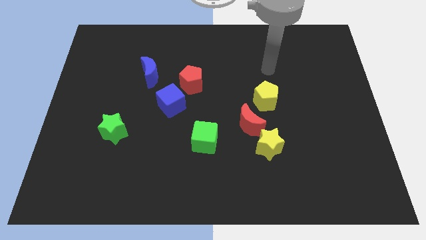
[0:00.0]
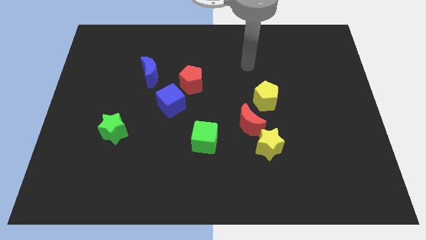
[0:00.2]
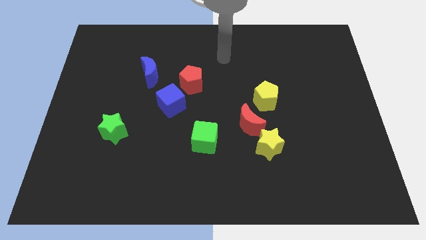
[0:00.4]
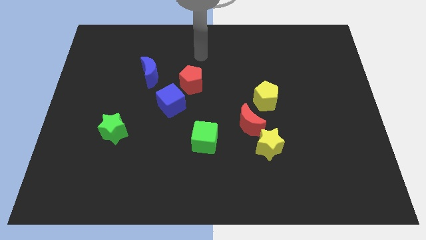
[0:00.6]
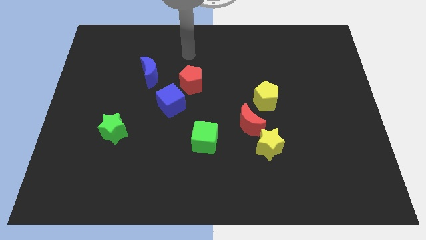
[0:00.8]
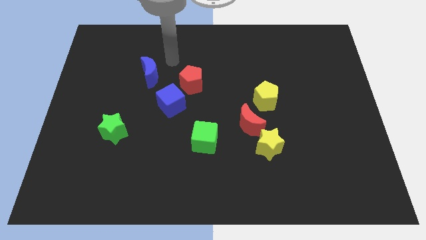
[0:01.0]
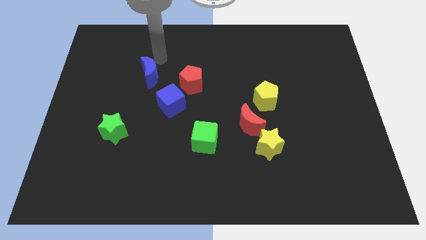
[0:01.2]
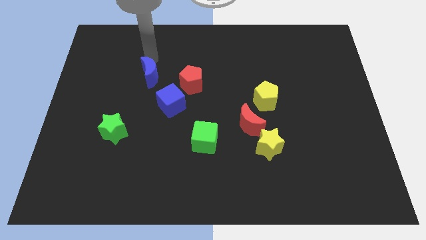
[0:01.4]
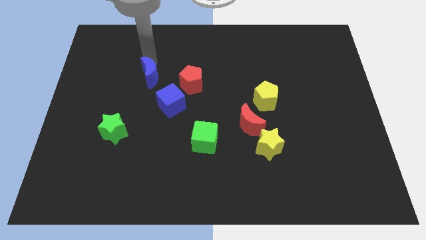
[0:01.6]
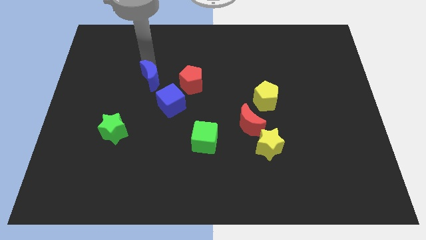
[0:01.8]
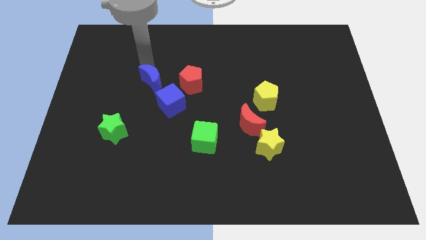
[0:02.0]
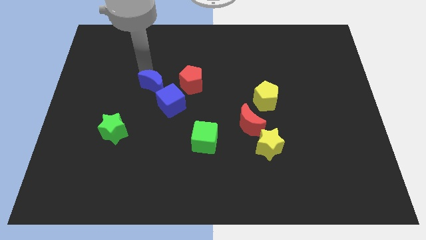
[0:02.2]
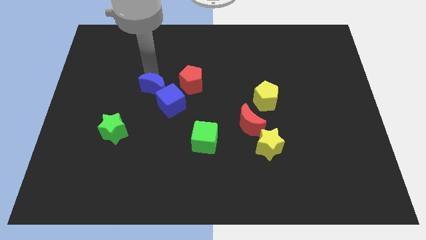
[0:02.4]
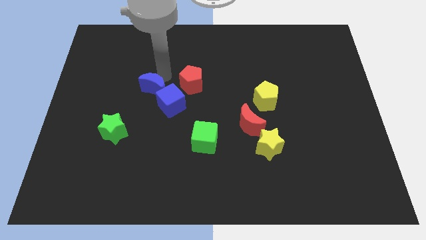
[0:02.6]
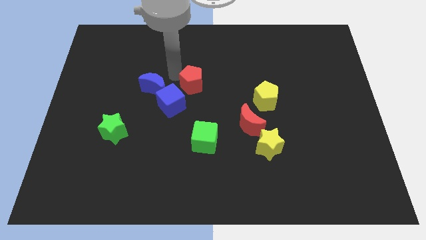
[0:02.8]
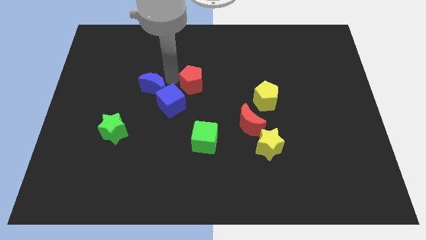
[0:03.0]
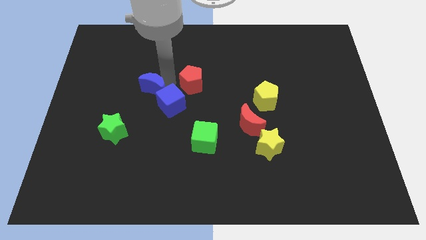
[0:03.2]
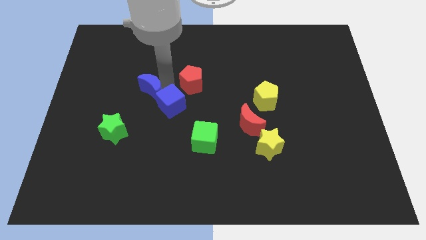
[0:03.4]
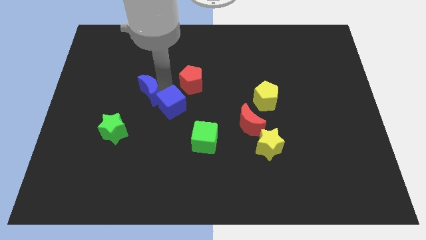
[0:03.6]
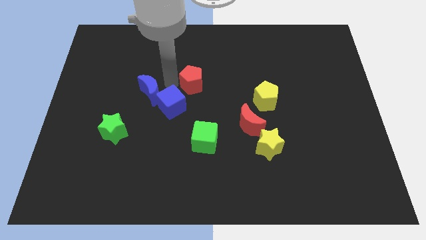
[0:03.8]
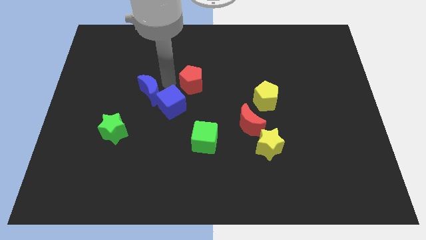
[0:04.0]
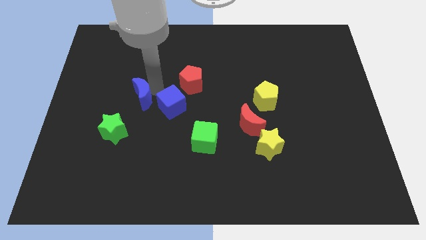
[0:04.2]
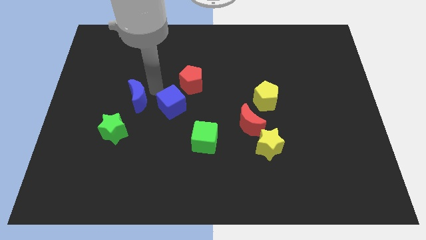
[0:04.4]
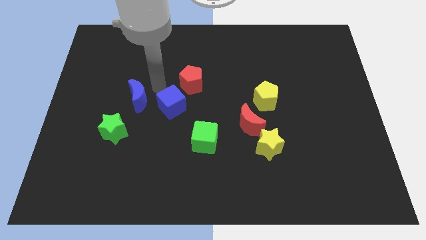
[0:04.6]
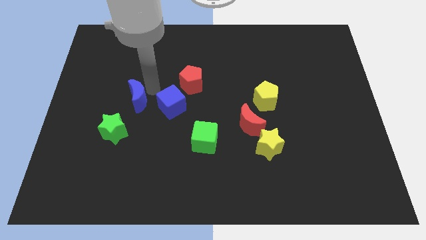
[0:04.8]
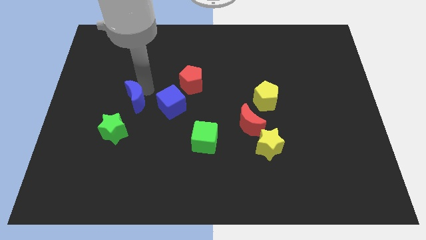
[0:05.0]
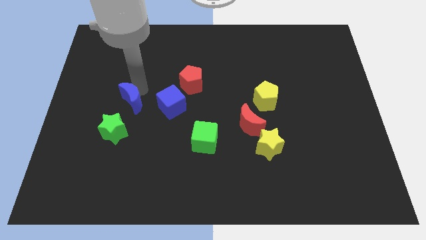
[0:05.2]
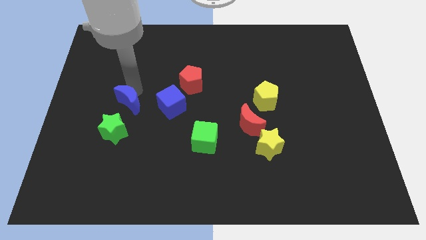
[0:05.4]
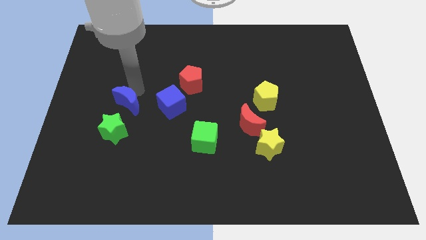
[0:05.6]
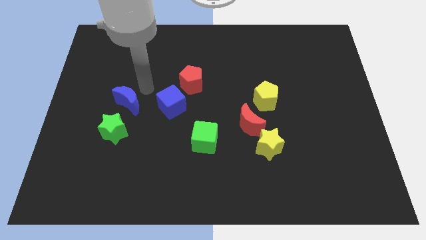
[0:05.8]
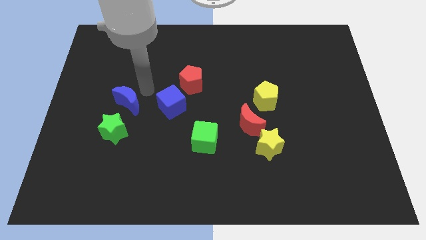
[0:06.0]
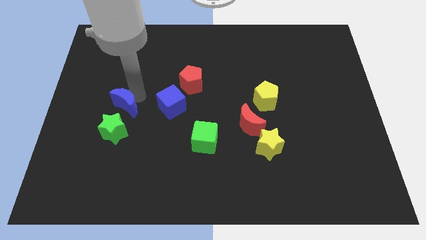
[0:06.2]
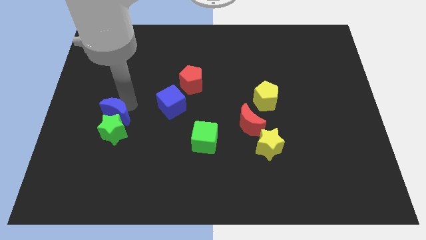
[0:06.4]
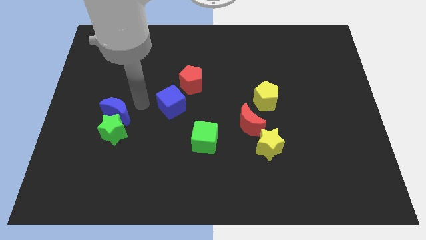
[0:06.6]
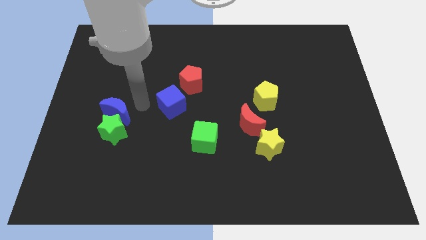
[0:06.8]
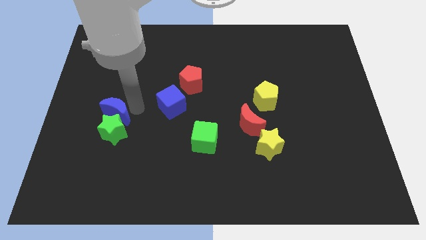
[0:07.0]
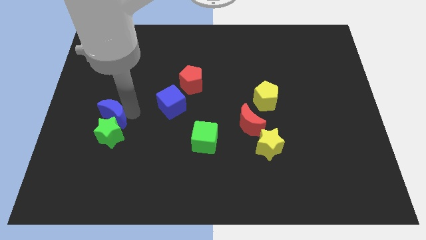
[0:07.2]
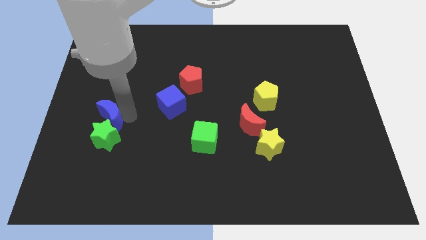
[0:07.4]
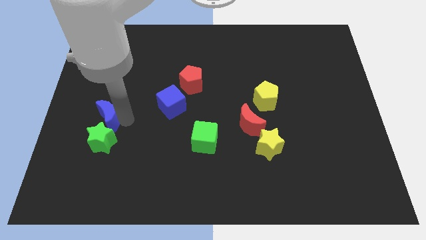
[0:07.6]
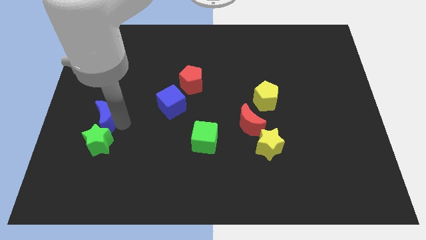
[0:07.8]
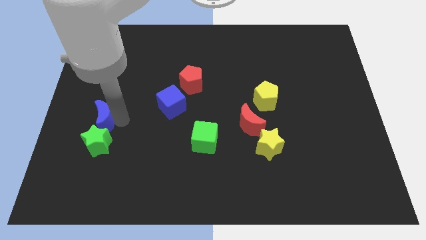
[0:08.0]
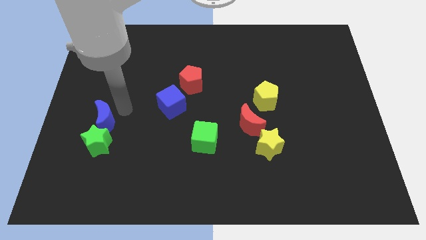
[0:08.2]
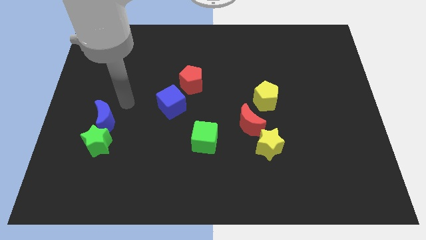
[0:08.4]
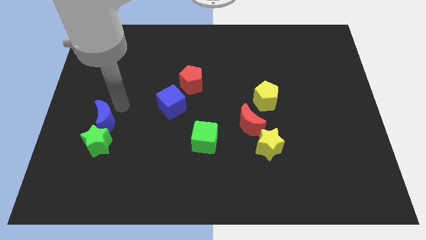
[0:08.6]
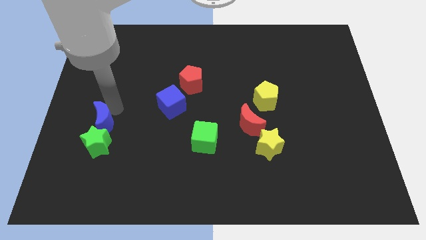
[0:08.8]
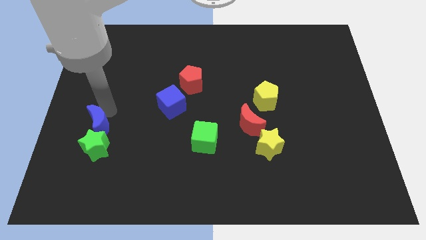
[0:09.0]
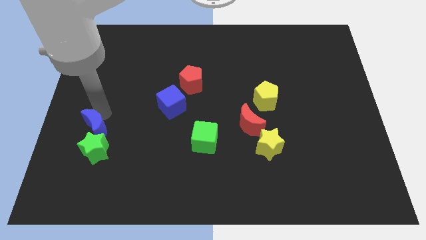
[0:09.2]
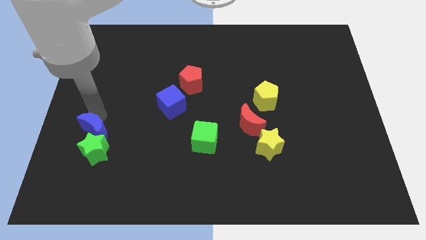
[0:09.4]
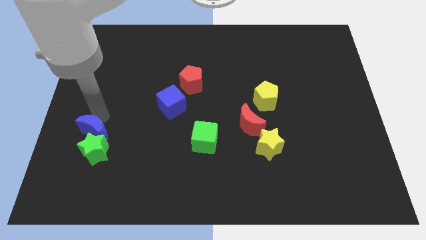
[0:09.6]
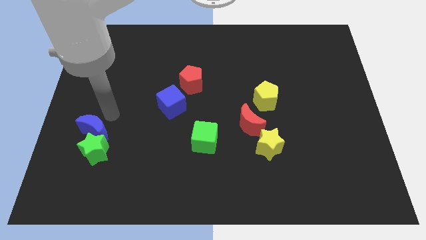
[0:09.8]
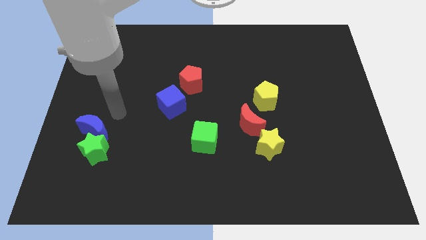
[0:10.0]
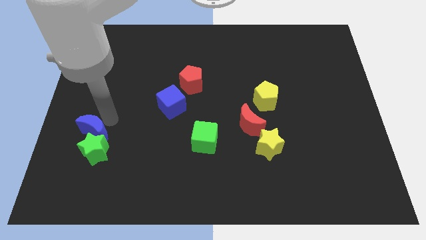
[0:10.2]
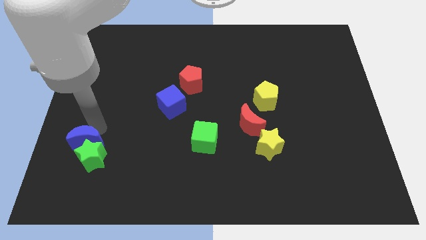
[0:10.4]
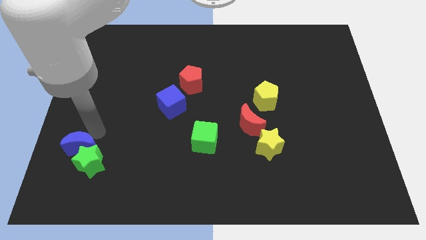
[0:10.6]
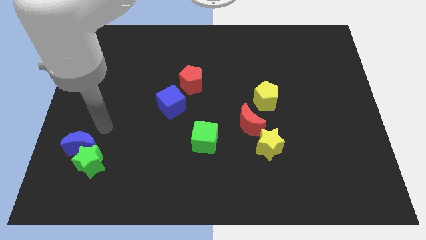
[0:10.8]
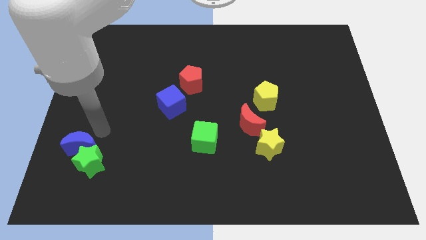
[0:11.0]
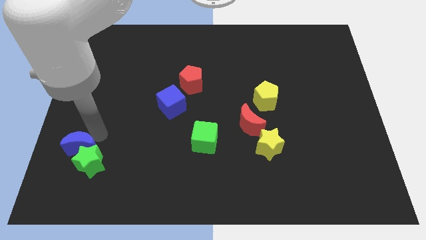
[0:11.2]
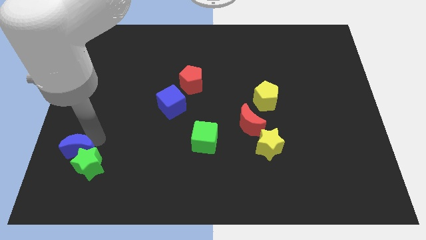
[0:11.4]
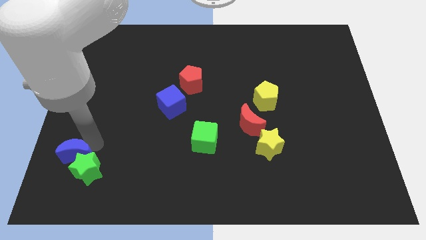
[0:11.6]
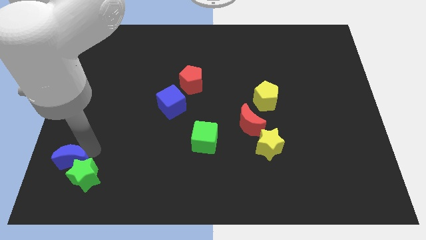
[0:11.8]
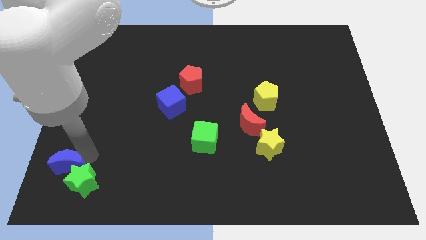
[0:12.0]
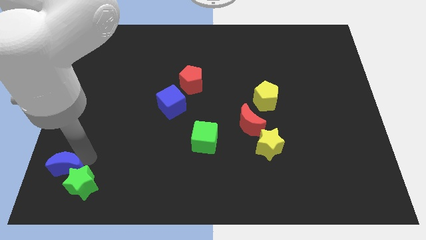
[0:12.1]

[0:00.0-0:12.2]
put the blue moon to the bottom left corner
